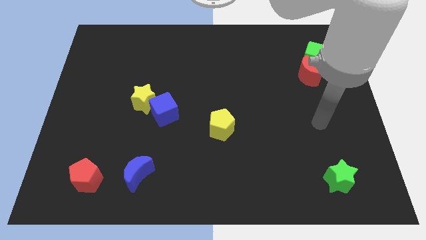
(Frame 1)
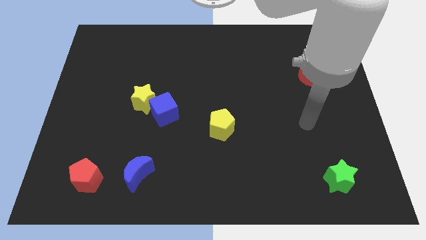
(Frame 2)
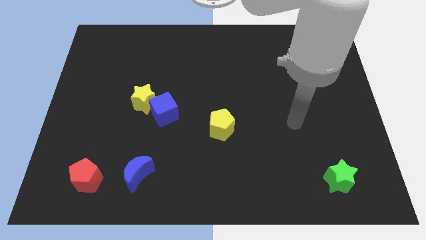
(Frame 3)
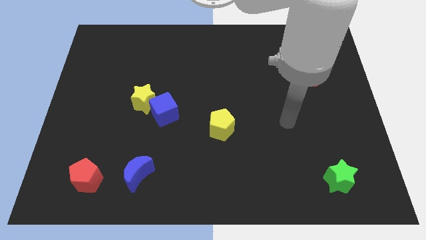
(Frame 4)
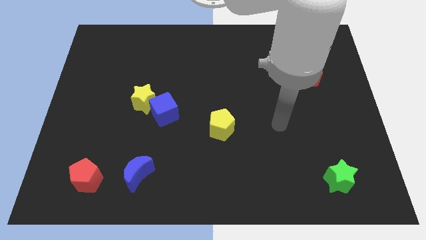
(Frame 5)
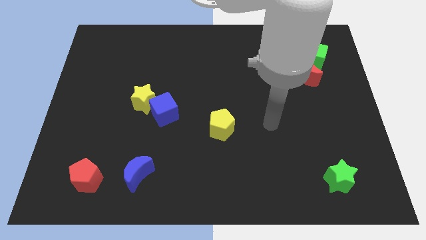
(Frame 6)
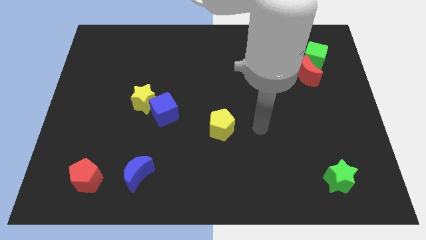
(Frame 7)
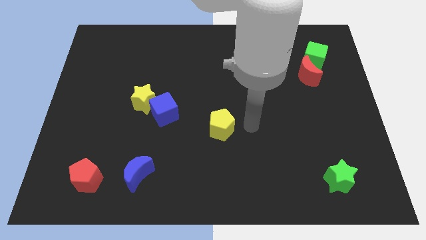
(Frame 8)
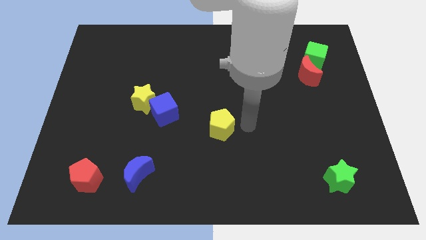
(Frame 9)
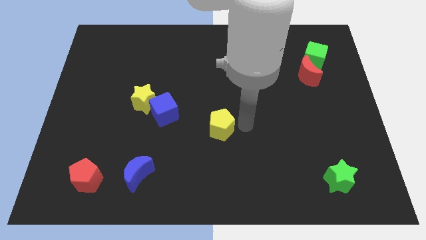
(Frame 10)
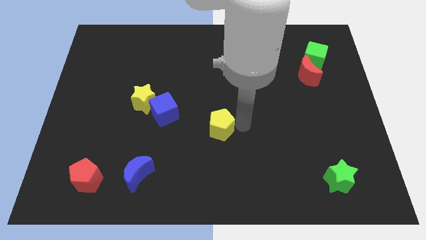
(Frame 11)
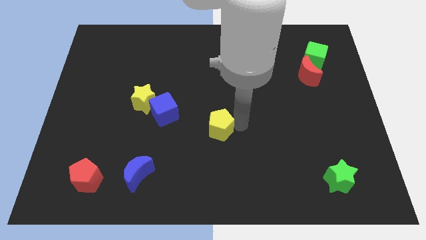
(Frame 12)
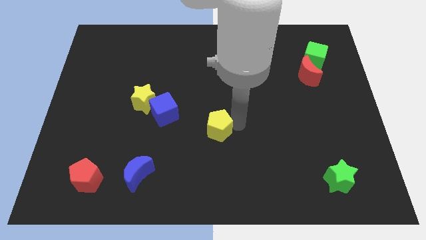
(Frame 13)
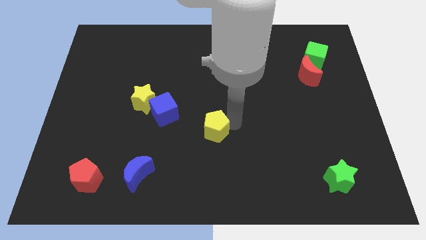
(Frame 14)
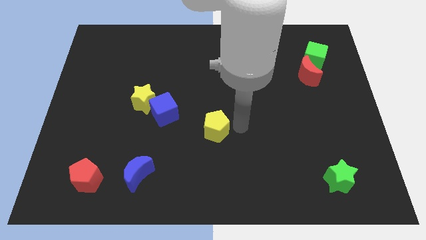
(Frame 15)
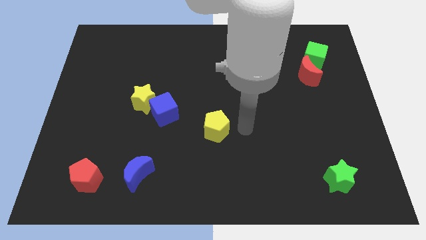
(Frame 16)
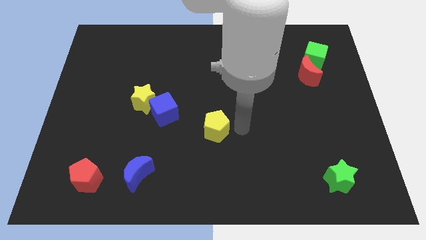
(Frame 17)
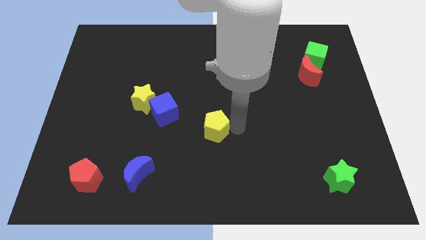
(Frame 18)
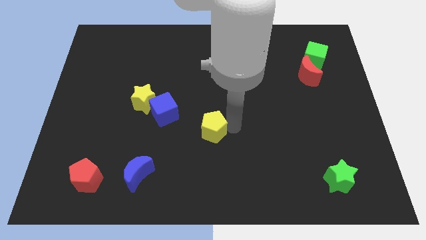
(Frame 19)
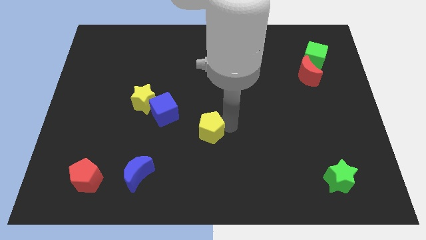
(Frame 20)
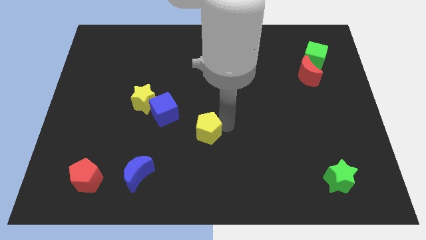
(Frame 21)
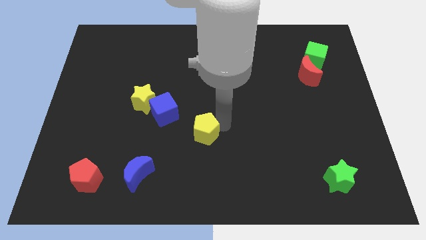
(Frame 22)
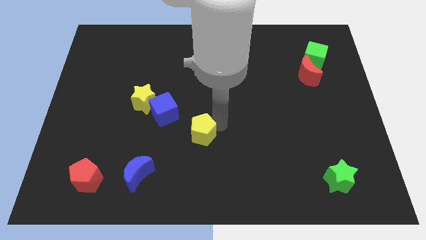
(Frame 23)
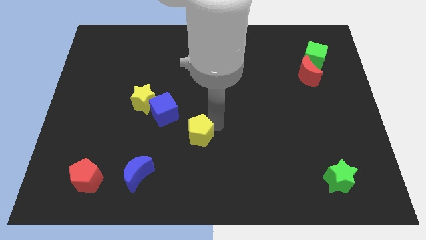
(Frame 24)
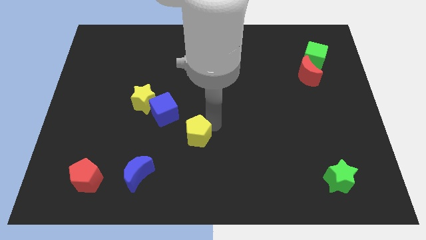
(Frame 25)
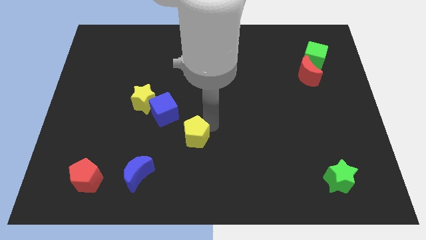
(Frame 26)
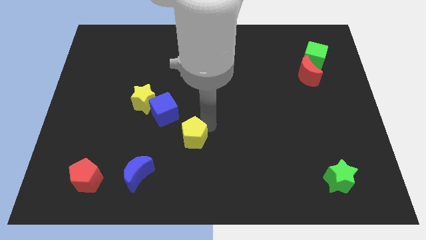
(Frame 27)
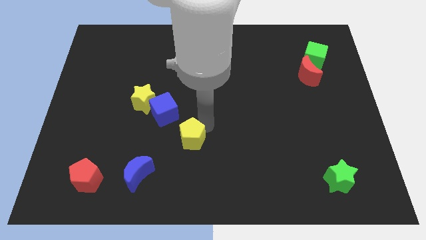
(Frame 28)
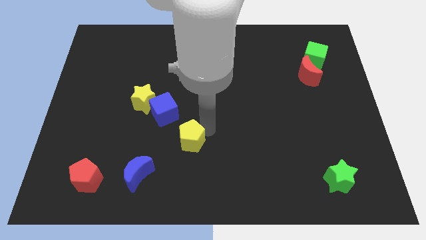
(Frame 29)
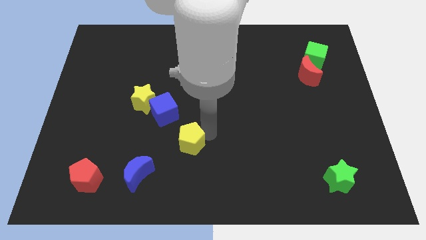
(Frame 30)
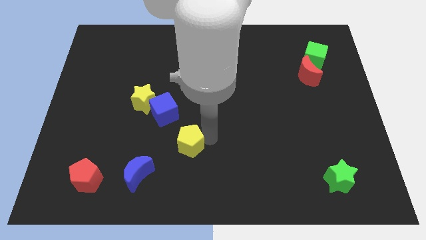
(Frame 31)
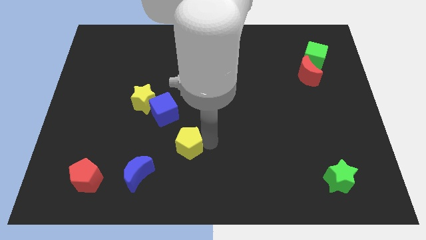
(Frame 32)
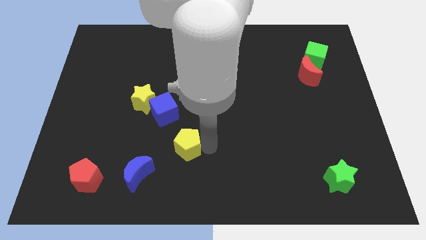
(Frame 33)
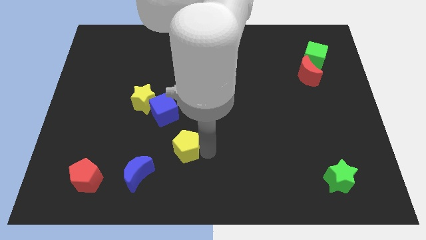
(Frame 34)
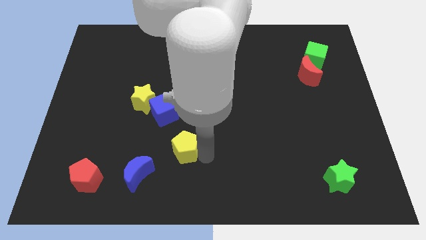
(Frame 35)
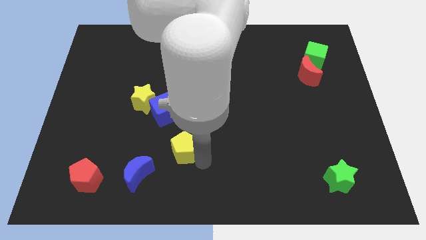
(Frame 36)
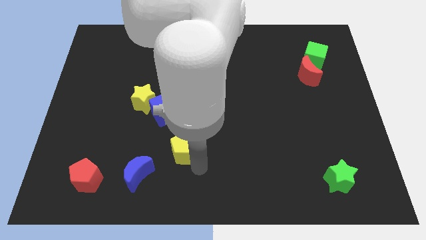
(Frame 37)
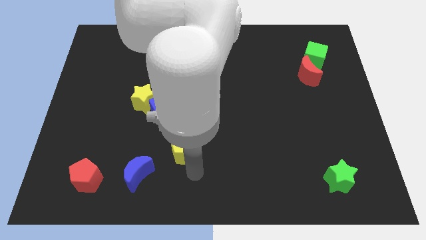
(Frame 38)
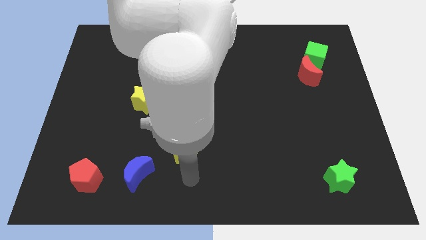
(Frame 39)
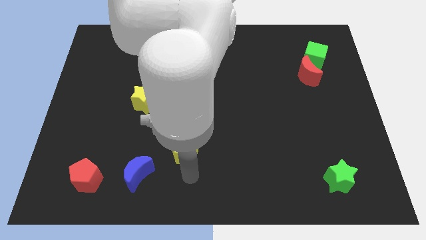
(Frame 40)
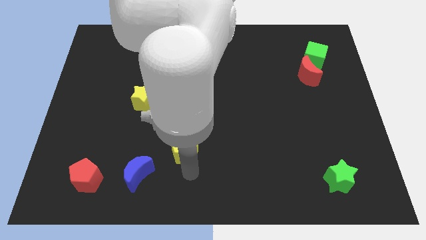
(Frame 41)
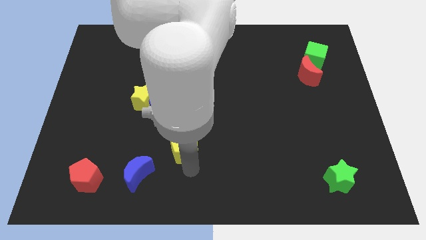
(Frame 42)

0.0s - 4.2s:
push the yellow pentagon a little bit left

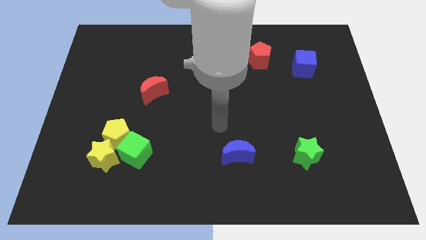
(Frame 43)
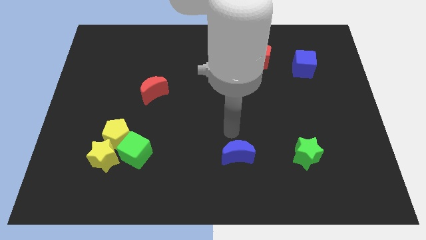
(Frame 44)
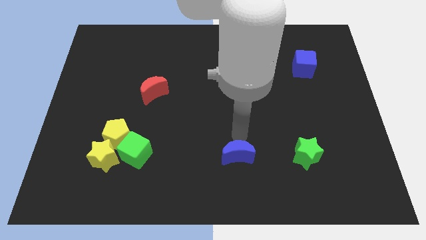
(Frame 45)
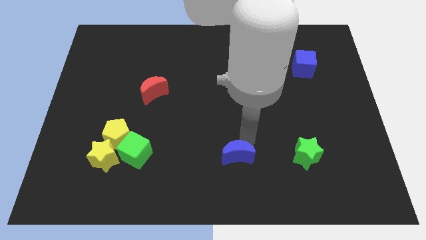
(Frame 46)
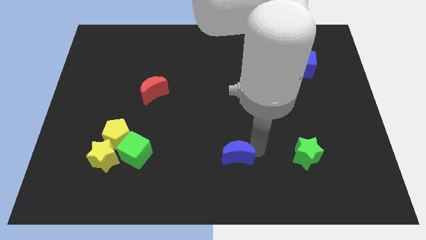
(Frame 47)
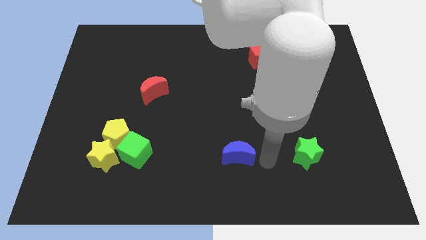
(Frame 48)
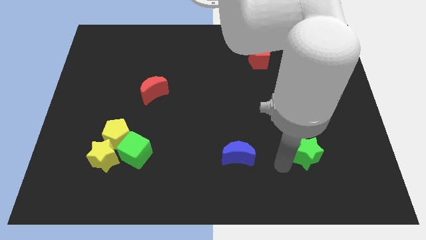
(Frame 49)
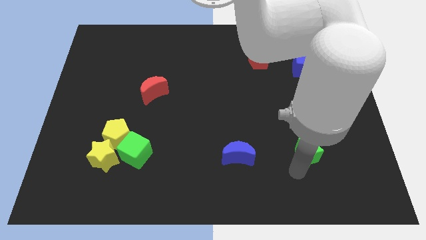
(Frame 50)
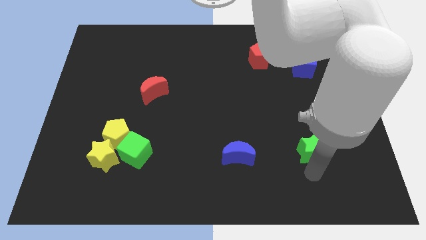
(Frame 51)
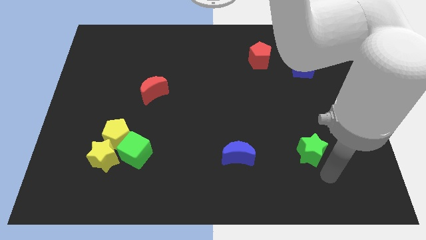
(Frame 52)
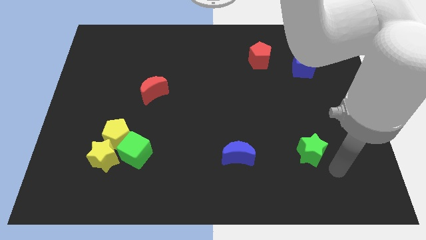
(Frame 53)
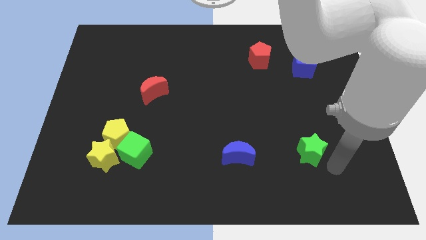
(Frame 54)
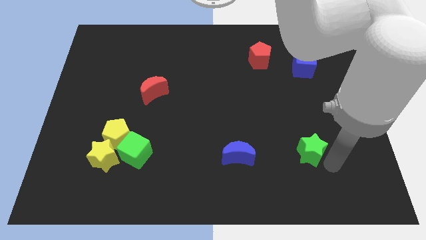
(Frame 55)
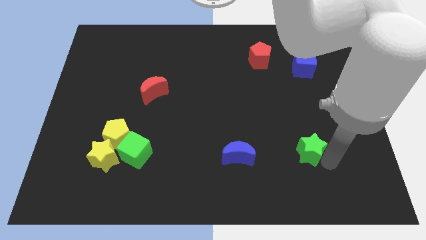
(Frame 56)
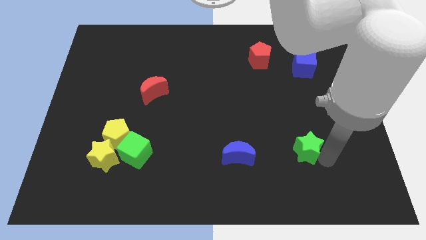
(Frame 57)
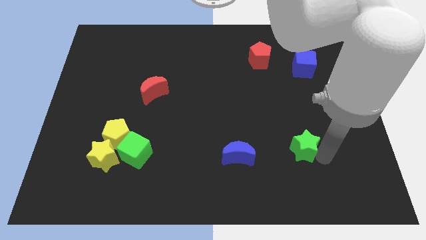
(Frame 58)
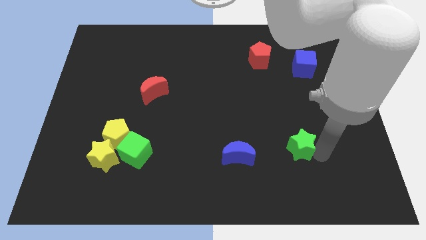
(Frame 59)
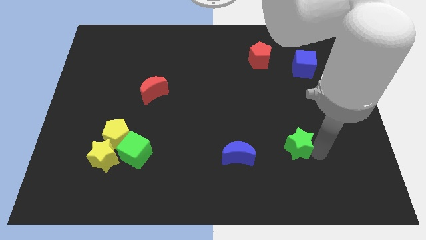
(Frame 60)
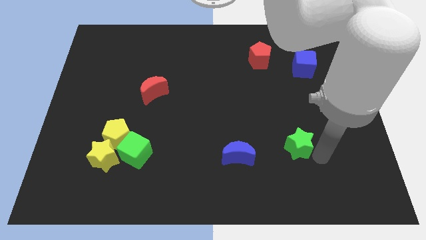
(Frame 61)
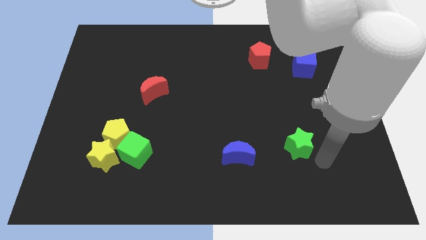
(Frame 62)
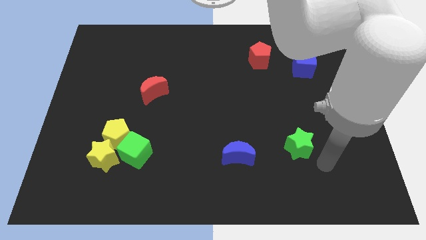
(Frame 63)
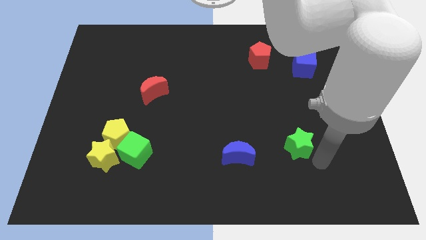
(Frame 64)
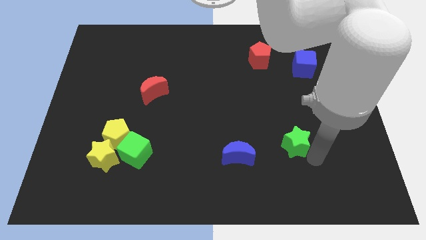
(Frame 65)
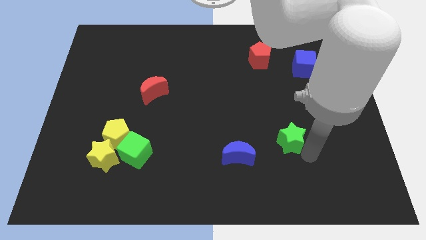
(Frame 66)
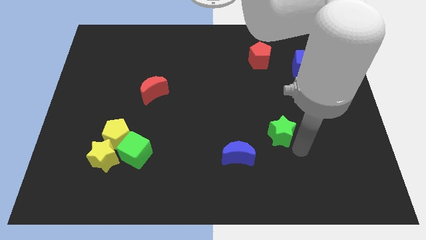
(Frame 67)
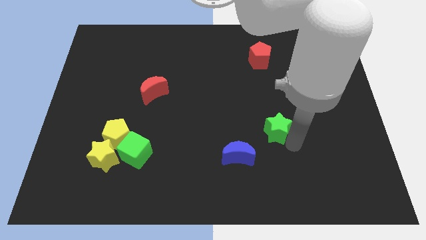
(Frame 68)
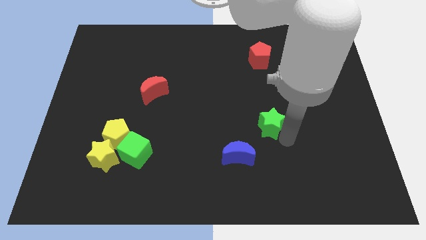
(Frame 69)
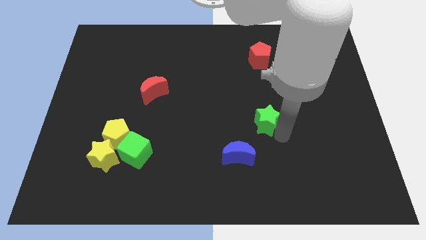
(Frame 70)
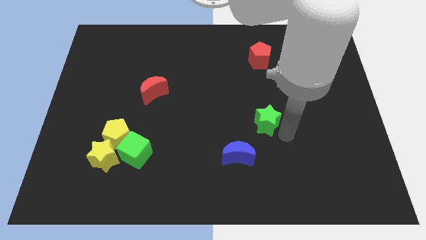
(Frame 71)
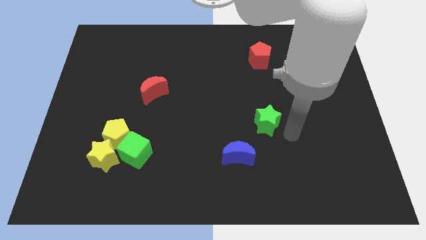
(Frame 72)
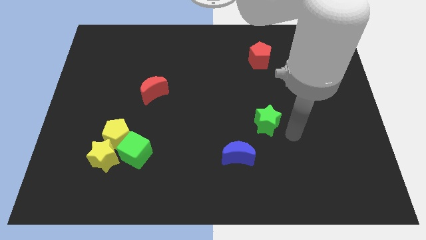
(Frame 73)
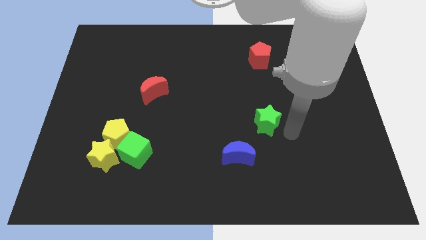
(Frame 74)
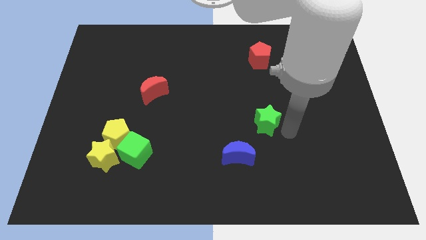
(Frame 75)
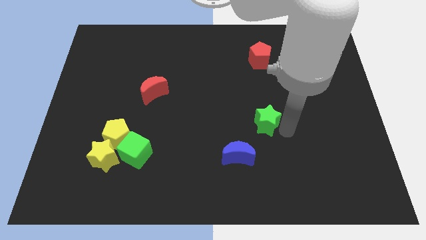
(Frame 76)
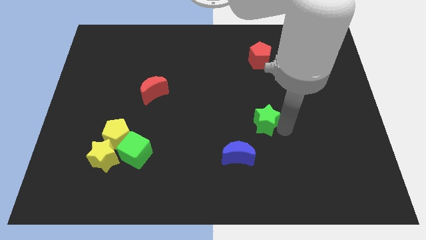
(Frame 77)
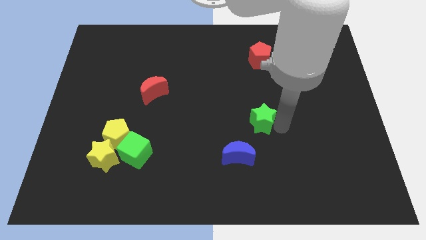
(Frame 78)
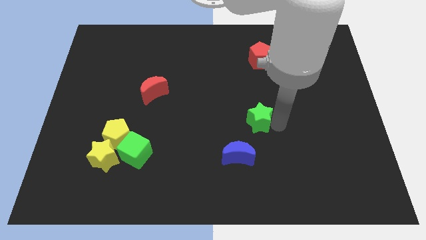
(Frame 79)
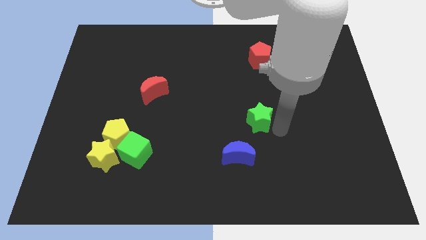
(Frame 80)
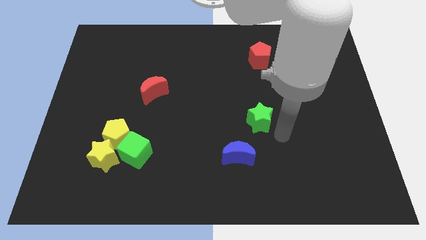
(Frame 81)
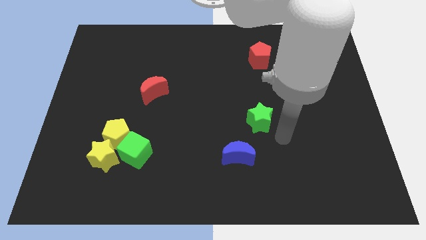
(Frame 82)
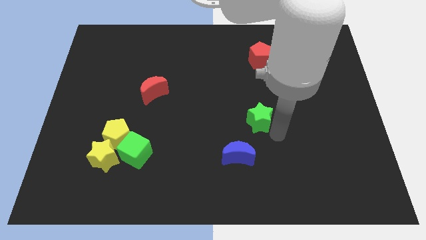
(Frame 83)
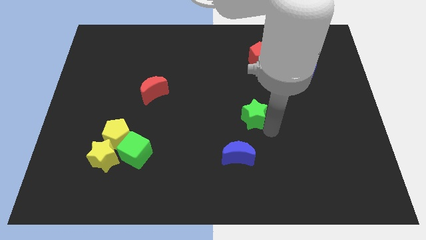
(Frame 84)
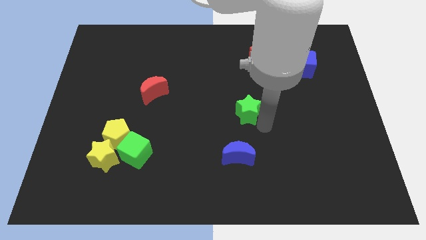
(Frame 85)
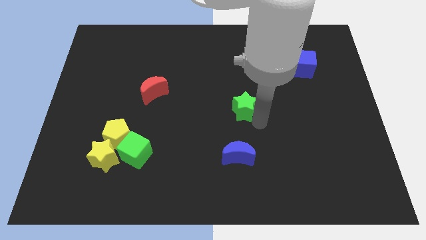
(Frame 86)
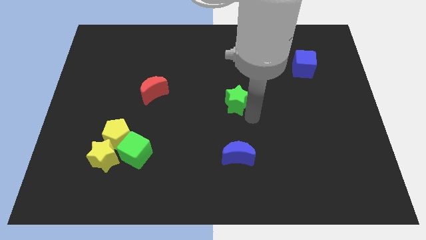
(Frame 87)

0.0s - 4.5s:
push the green star diagonally upwards and left
